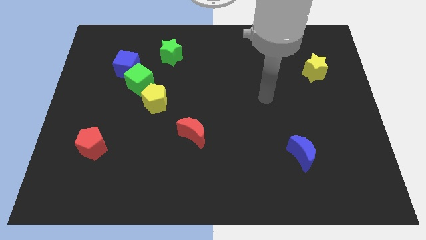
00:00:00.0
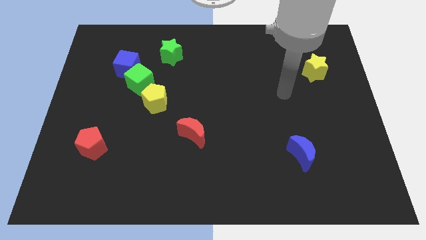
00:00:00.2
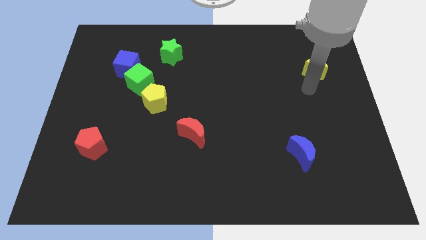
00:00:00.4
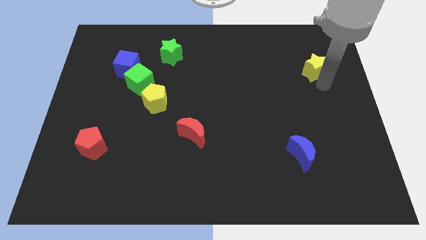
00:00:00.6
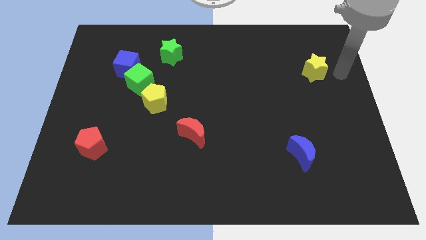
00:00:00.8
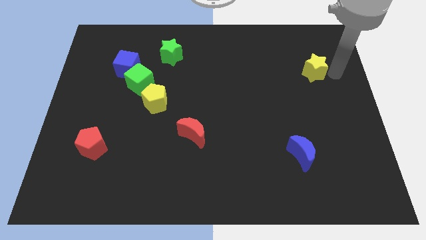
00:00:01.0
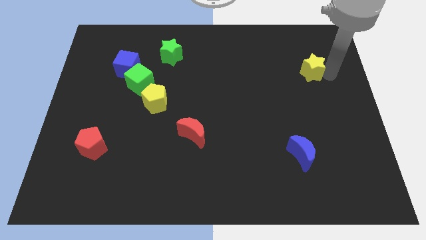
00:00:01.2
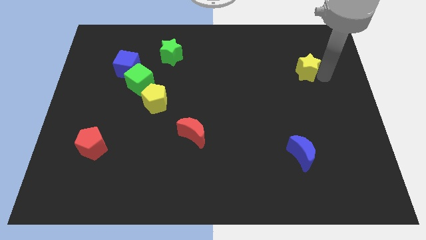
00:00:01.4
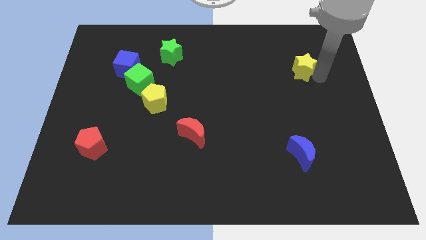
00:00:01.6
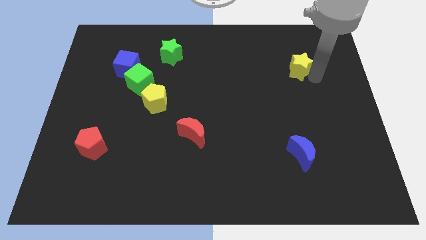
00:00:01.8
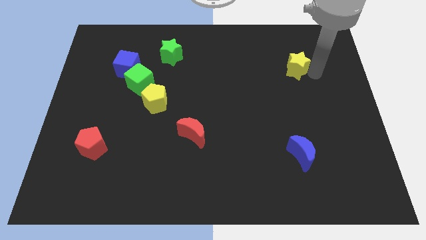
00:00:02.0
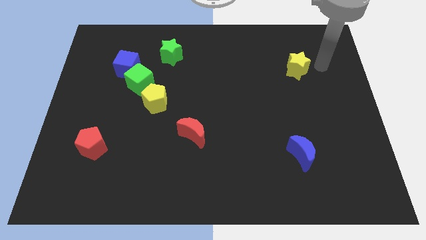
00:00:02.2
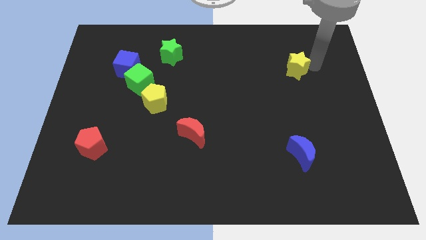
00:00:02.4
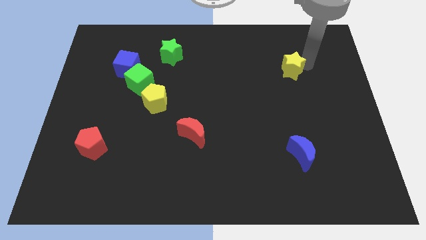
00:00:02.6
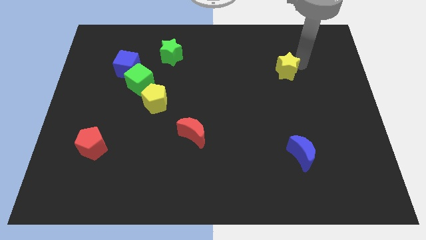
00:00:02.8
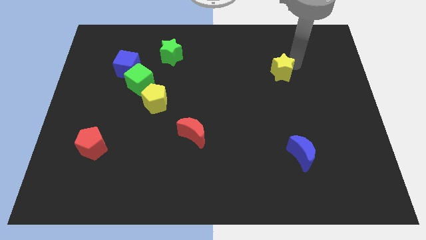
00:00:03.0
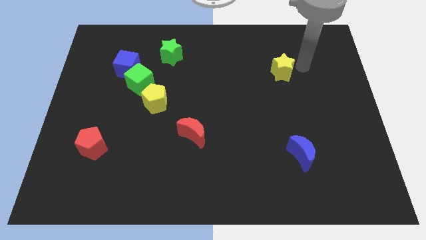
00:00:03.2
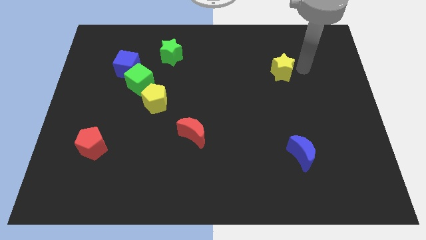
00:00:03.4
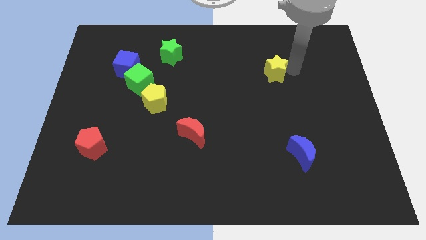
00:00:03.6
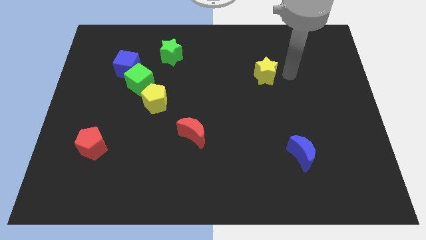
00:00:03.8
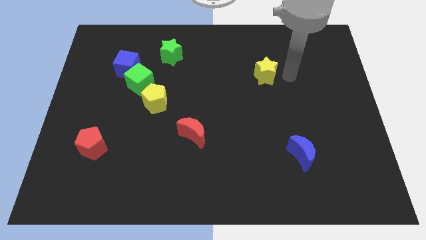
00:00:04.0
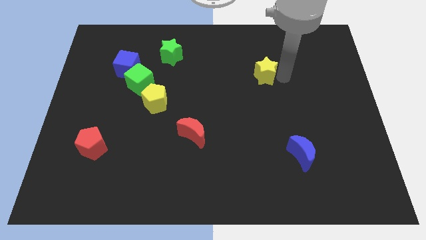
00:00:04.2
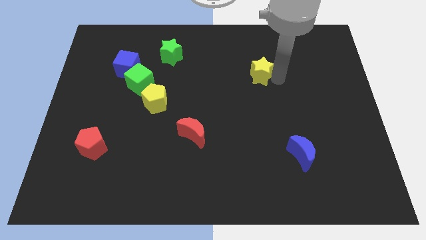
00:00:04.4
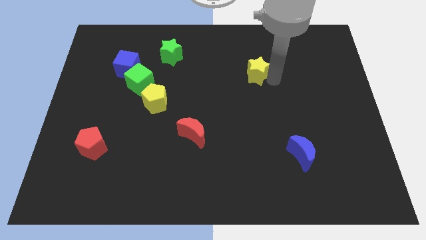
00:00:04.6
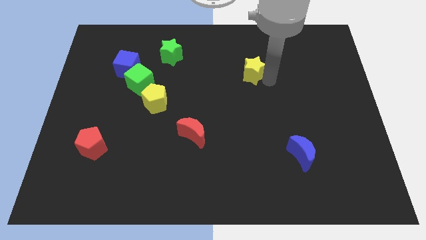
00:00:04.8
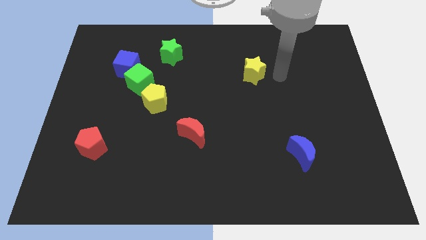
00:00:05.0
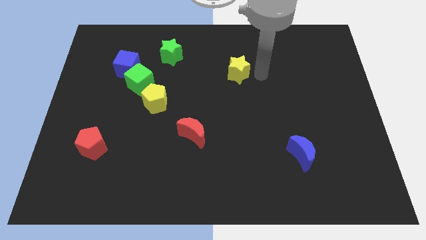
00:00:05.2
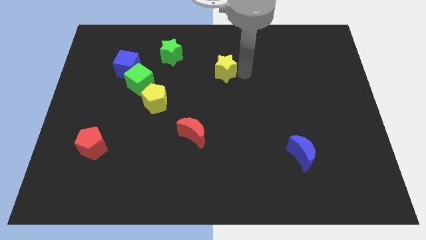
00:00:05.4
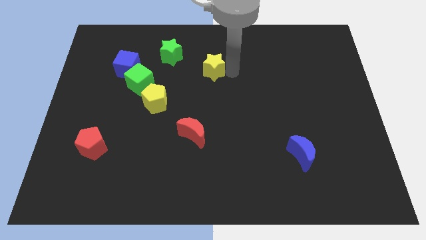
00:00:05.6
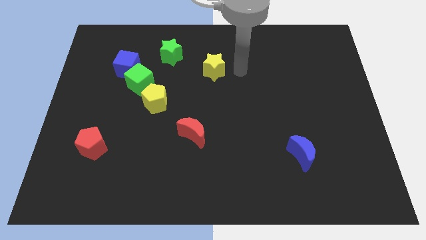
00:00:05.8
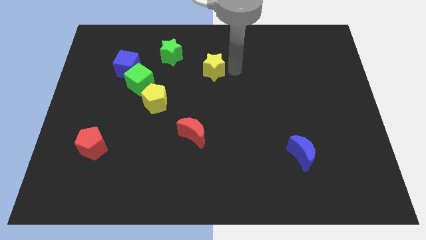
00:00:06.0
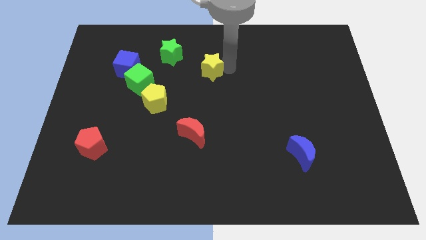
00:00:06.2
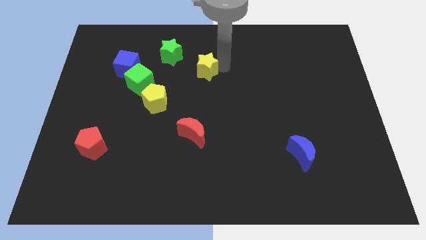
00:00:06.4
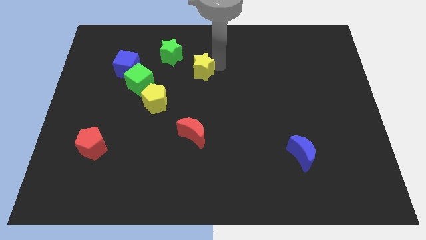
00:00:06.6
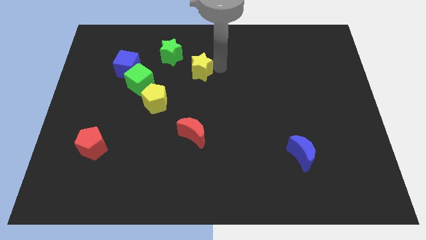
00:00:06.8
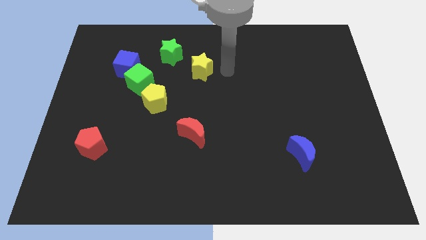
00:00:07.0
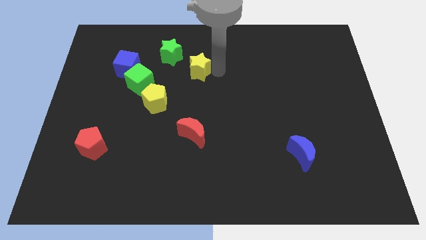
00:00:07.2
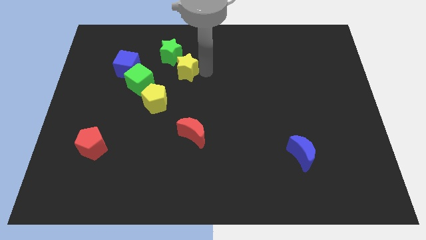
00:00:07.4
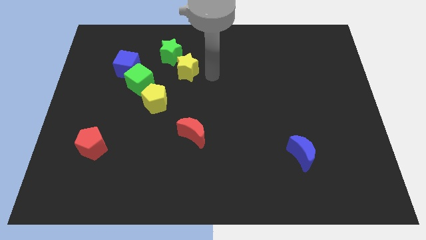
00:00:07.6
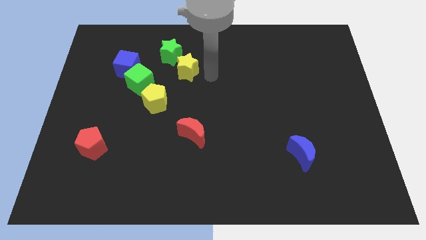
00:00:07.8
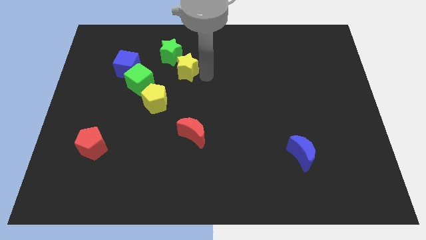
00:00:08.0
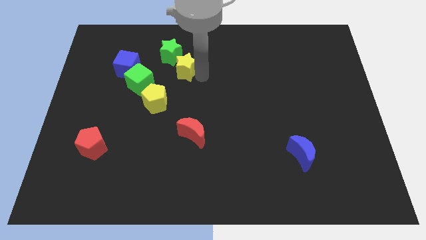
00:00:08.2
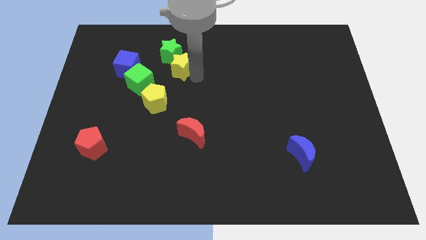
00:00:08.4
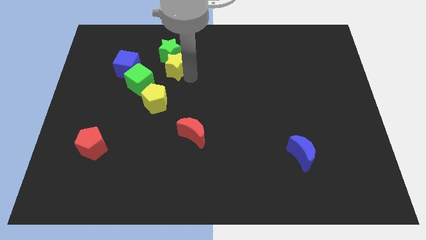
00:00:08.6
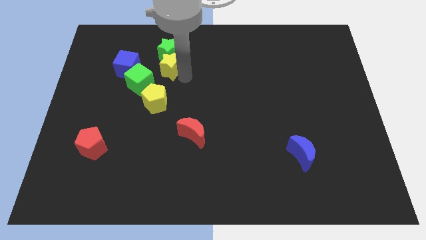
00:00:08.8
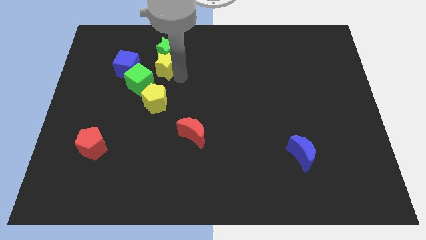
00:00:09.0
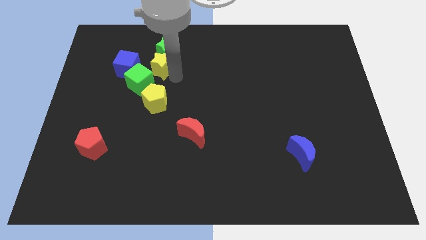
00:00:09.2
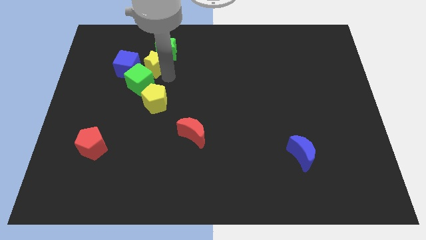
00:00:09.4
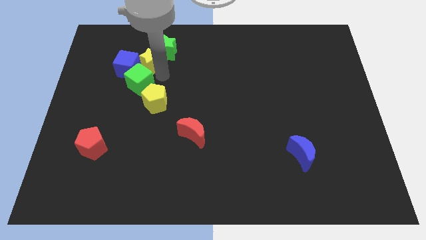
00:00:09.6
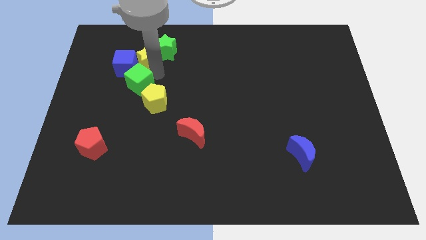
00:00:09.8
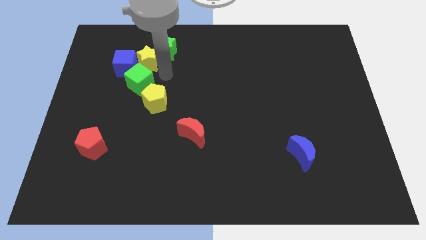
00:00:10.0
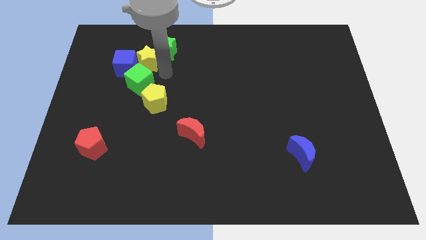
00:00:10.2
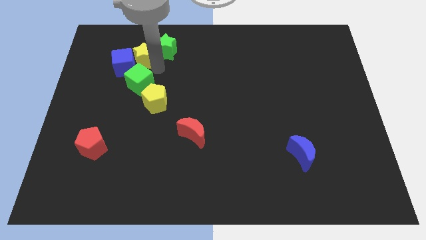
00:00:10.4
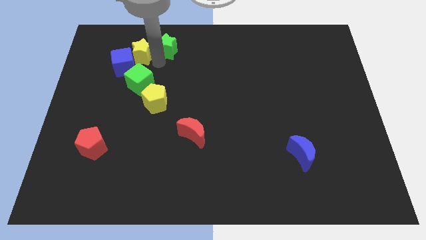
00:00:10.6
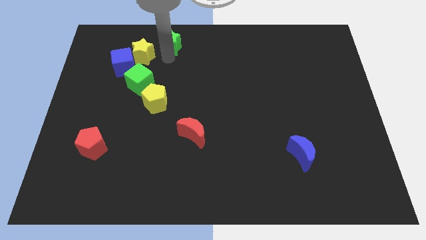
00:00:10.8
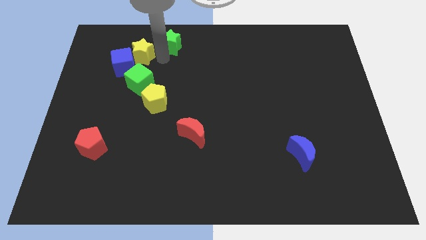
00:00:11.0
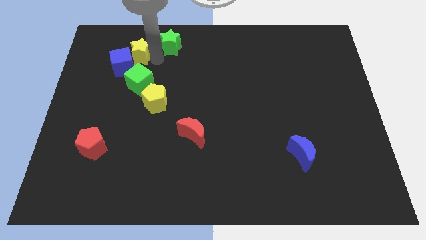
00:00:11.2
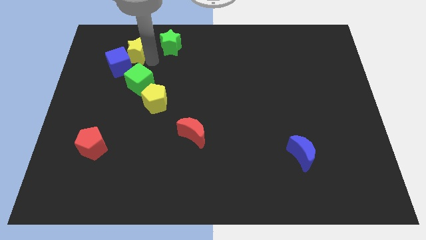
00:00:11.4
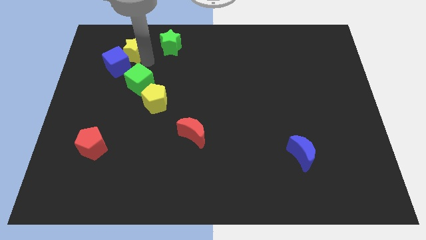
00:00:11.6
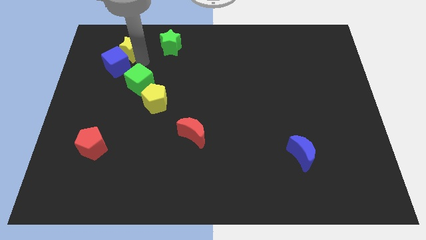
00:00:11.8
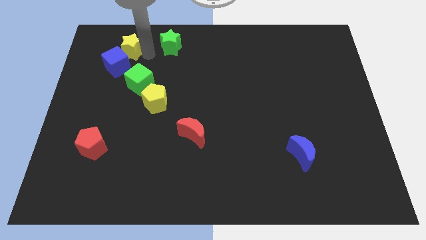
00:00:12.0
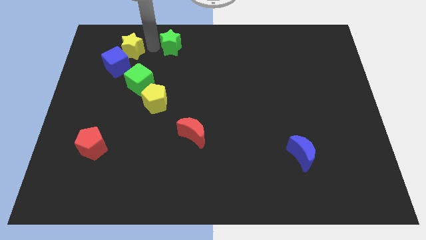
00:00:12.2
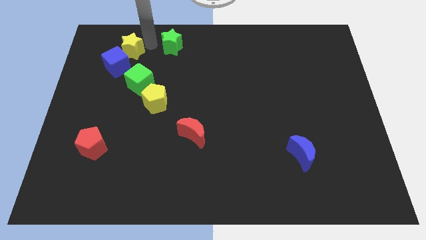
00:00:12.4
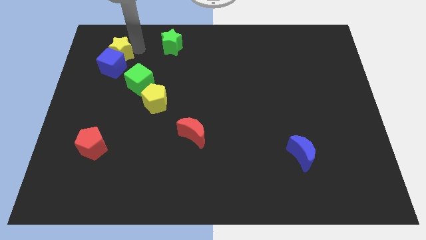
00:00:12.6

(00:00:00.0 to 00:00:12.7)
slide the yellow star diagonally up and to the left of the green cube

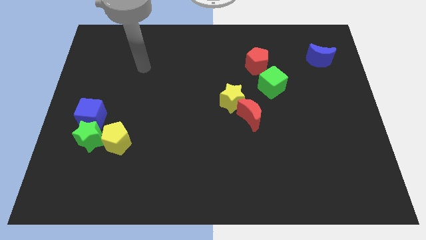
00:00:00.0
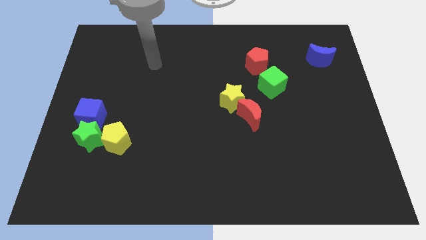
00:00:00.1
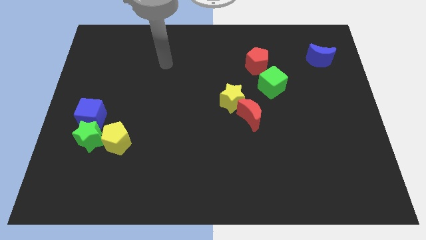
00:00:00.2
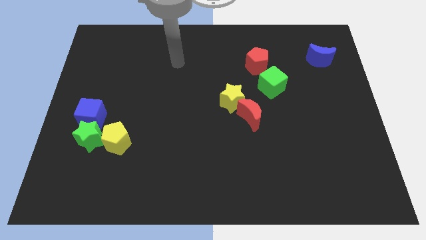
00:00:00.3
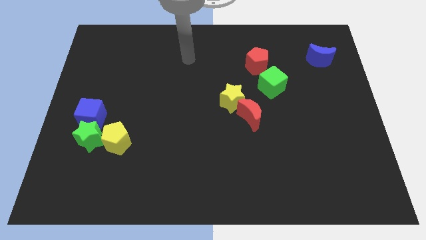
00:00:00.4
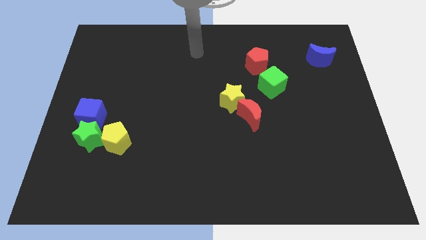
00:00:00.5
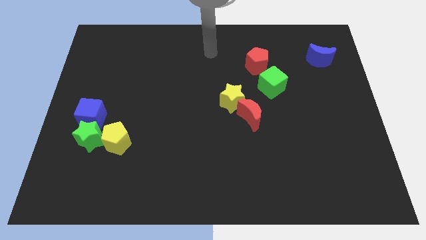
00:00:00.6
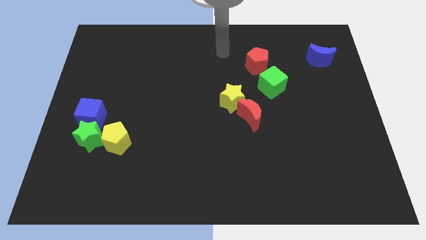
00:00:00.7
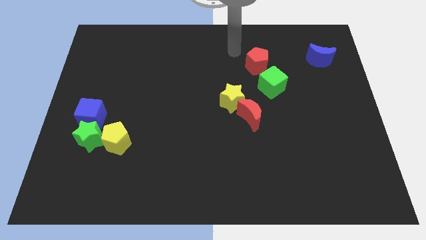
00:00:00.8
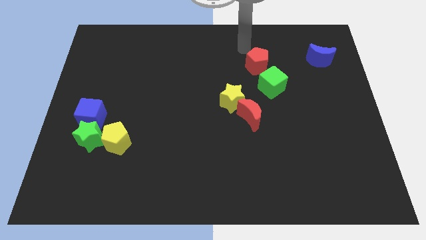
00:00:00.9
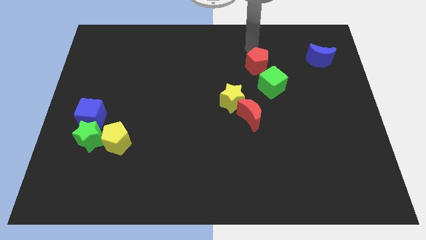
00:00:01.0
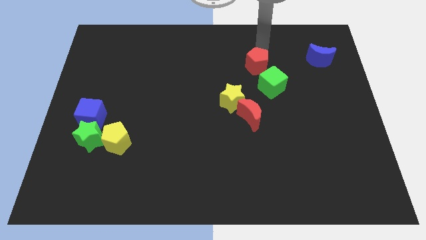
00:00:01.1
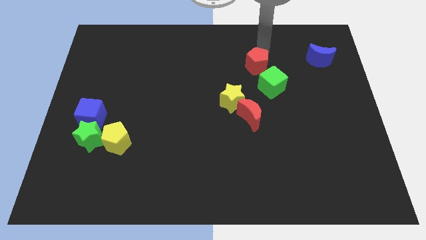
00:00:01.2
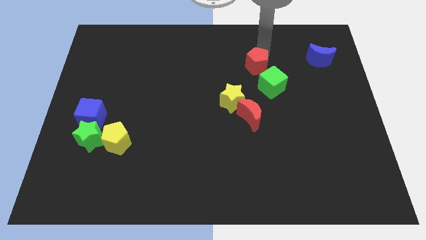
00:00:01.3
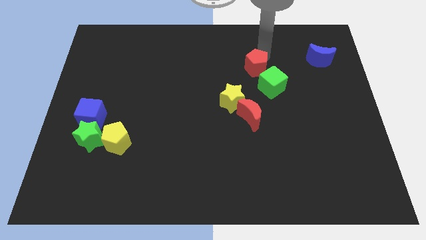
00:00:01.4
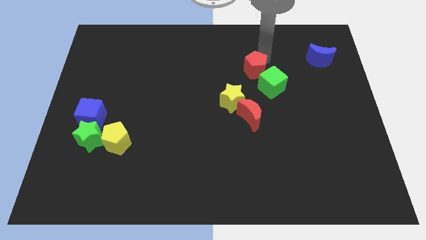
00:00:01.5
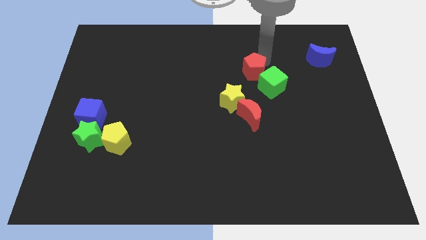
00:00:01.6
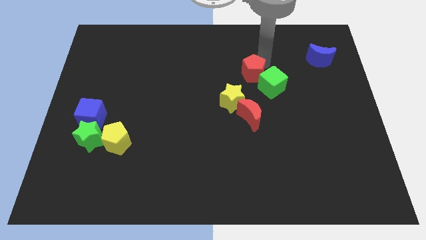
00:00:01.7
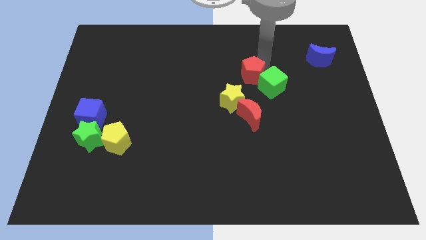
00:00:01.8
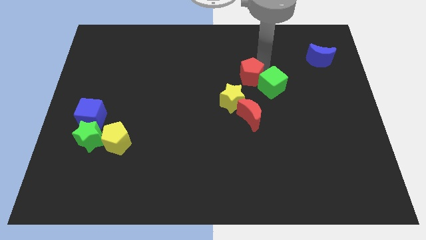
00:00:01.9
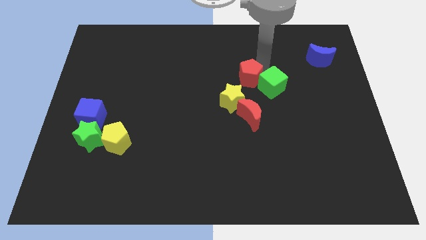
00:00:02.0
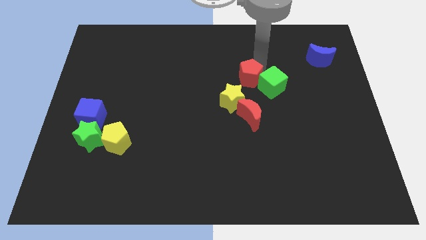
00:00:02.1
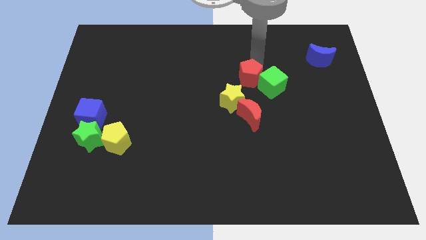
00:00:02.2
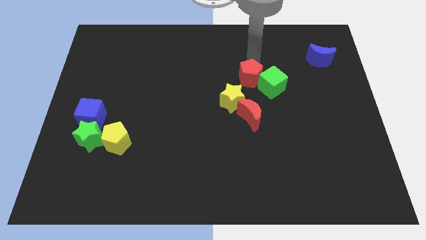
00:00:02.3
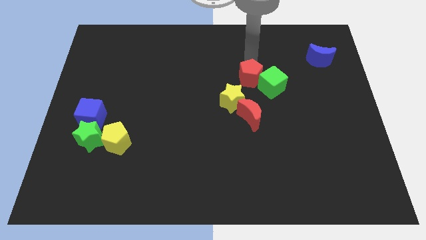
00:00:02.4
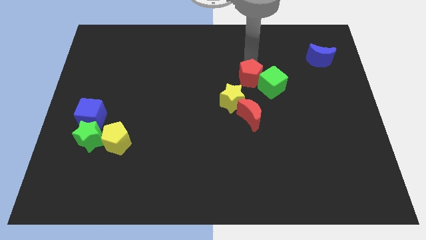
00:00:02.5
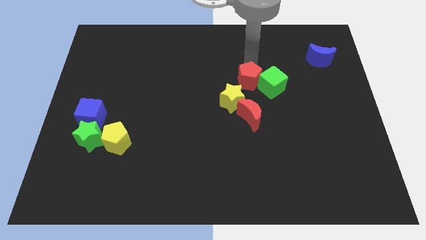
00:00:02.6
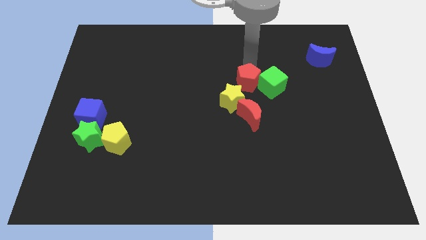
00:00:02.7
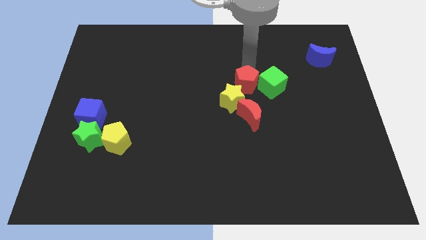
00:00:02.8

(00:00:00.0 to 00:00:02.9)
slide the red pentagon diagonally down and to the left of the green cube
